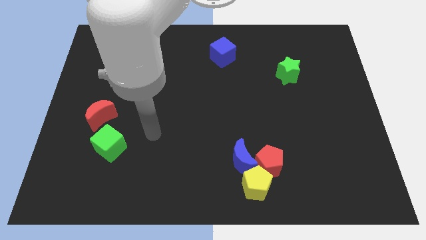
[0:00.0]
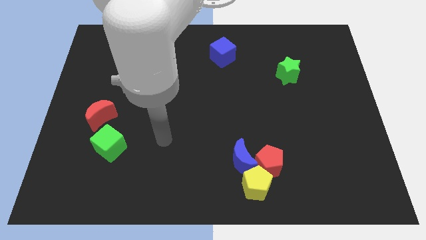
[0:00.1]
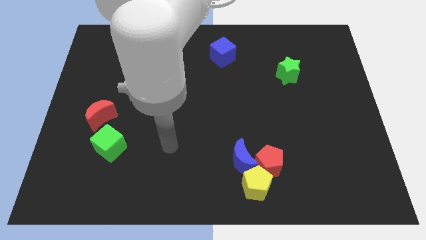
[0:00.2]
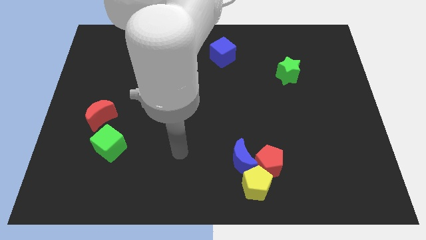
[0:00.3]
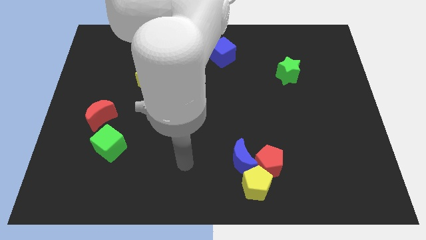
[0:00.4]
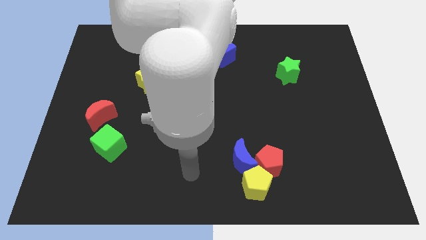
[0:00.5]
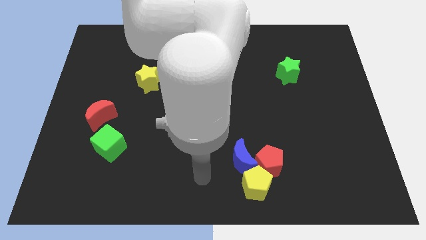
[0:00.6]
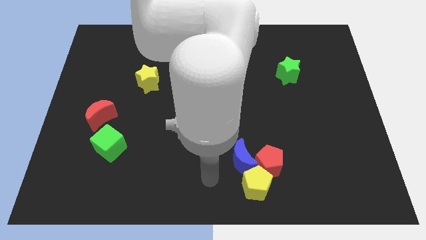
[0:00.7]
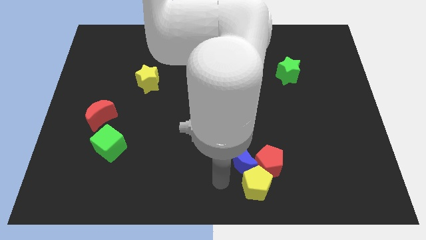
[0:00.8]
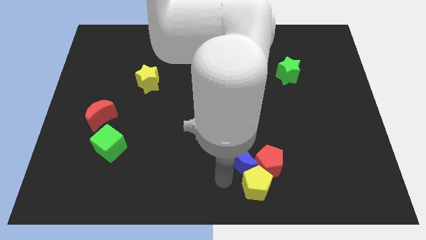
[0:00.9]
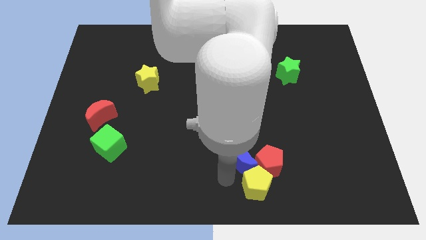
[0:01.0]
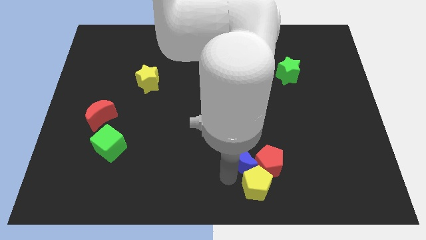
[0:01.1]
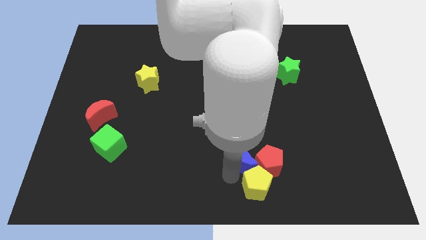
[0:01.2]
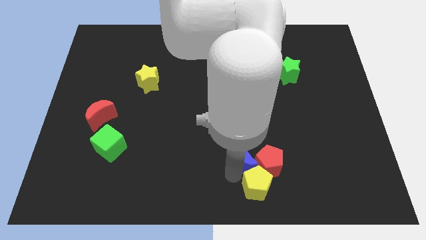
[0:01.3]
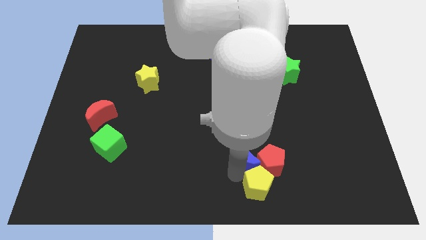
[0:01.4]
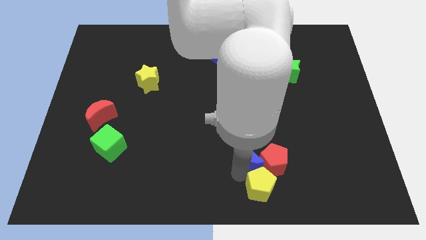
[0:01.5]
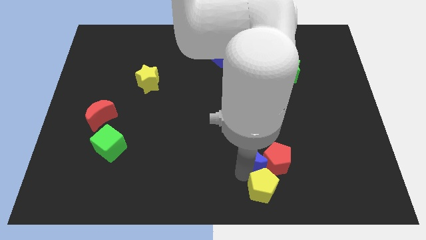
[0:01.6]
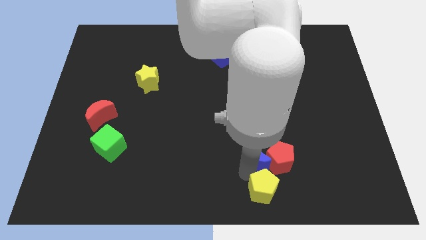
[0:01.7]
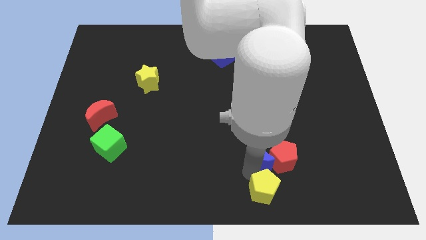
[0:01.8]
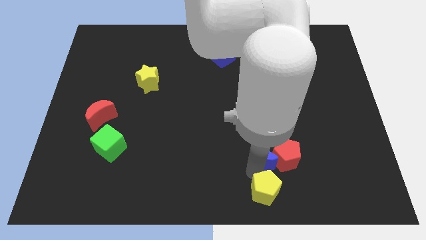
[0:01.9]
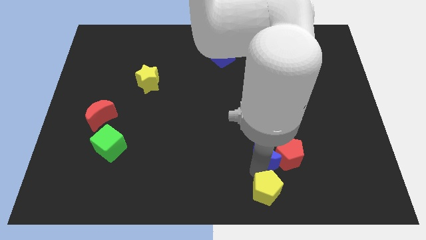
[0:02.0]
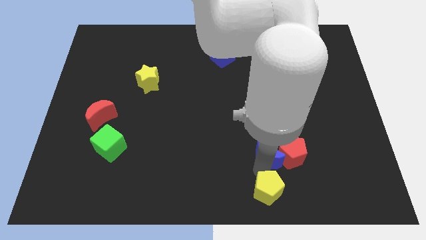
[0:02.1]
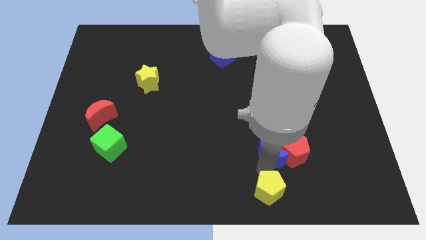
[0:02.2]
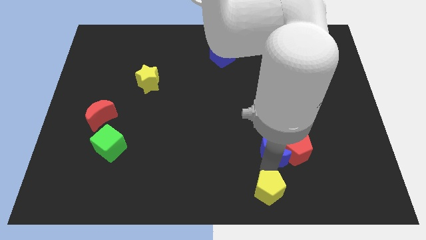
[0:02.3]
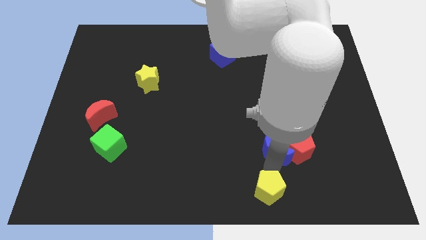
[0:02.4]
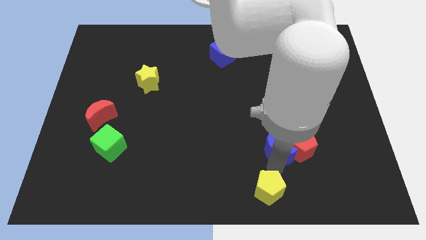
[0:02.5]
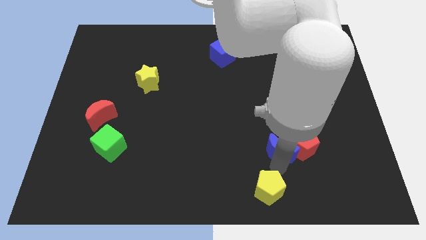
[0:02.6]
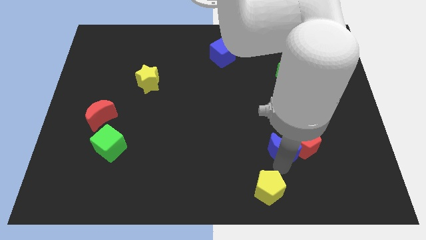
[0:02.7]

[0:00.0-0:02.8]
slightly move the blue moon upwards and right diagonally

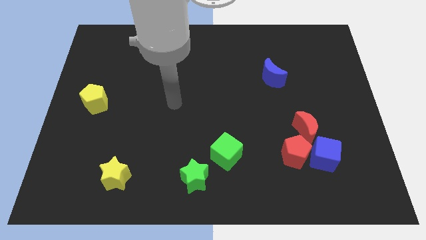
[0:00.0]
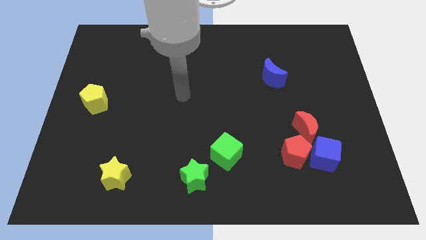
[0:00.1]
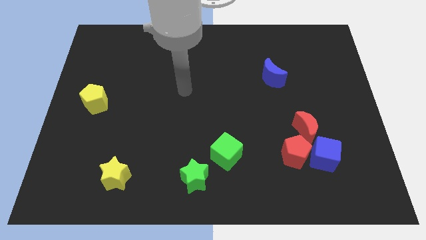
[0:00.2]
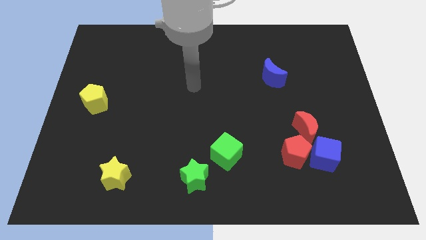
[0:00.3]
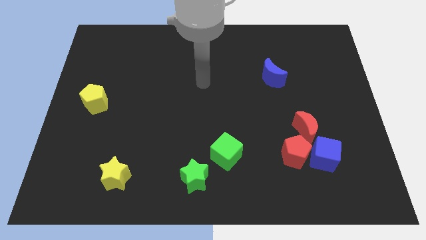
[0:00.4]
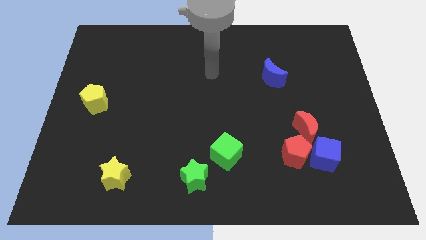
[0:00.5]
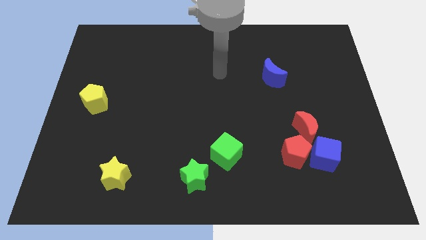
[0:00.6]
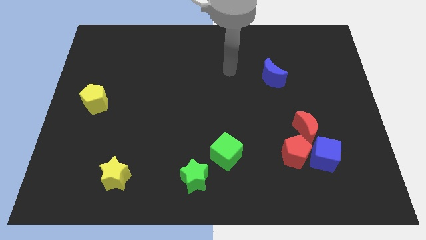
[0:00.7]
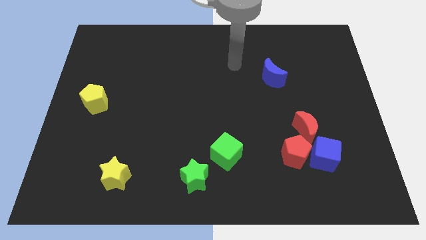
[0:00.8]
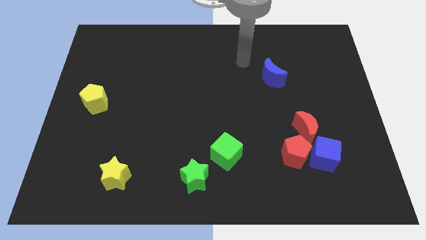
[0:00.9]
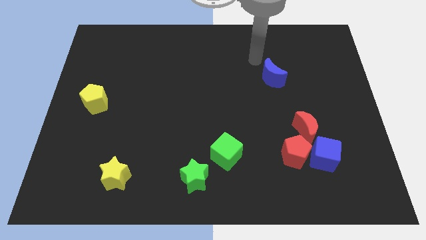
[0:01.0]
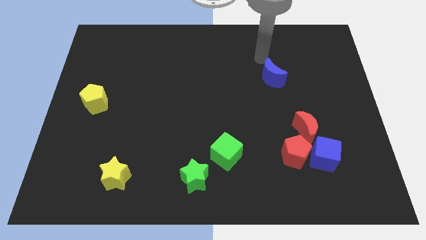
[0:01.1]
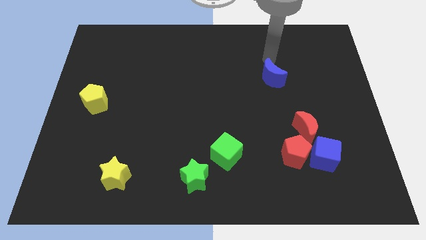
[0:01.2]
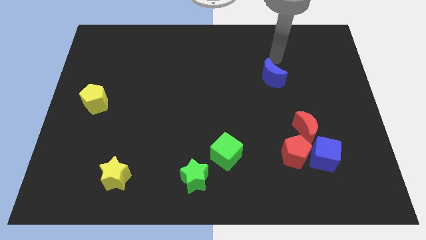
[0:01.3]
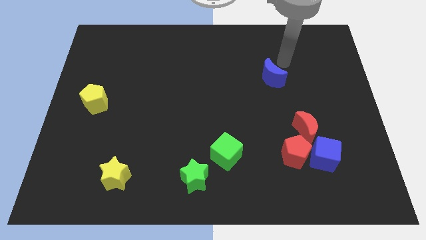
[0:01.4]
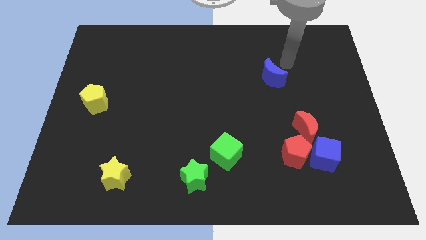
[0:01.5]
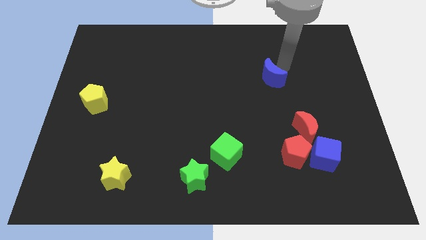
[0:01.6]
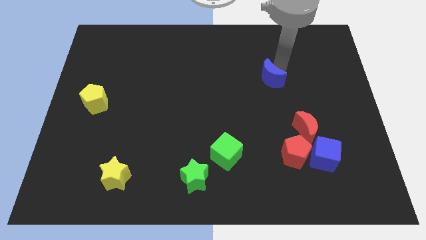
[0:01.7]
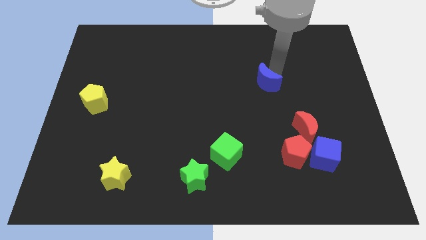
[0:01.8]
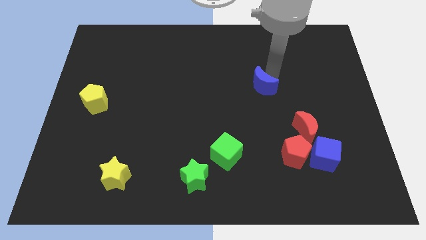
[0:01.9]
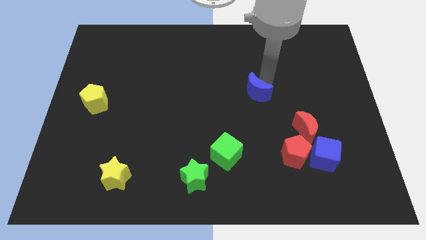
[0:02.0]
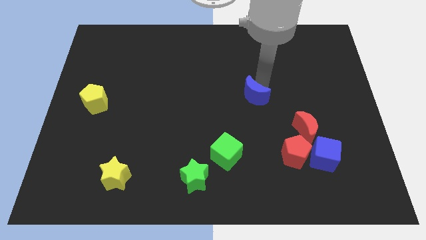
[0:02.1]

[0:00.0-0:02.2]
slide the blue moon a little diagonally downwards and to the left

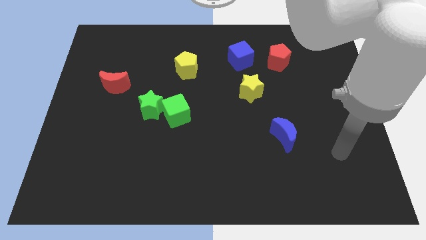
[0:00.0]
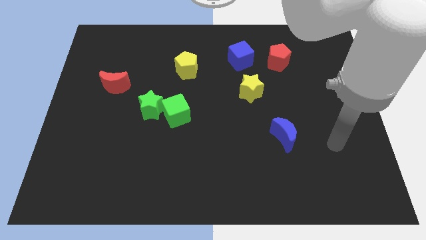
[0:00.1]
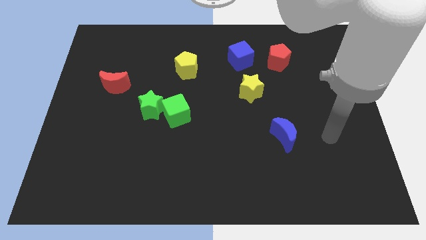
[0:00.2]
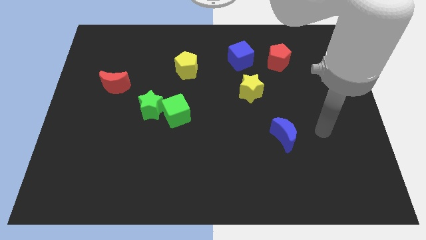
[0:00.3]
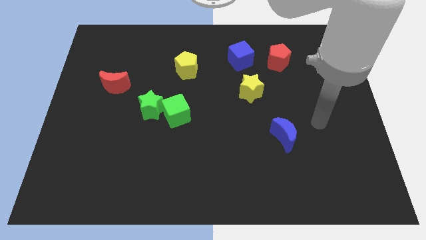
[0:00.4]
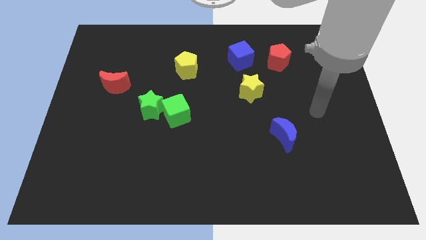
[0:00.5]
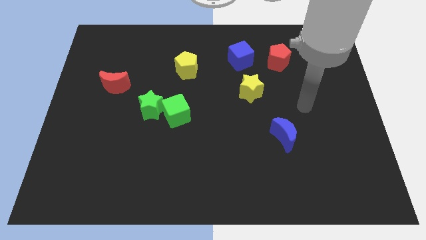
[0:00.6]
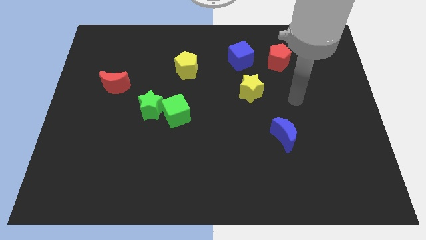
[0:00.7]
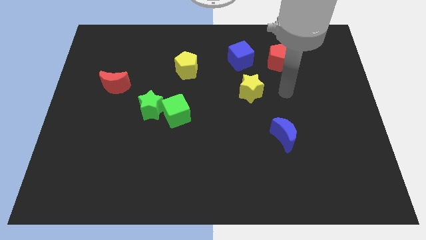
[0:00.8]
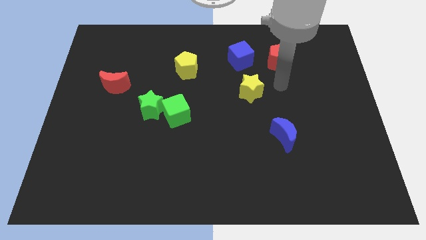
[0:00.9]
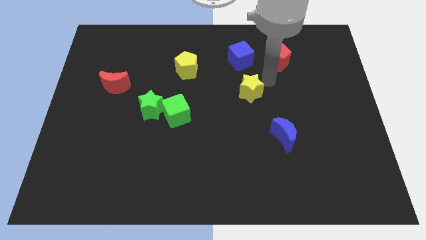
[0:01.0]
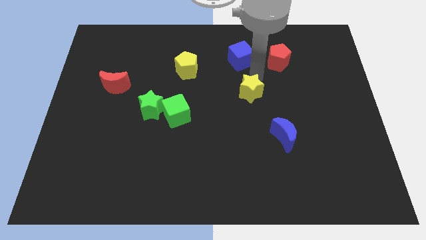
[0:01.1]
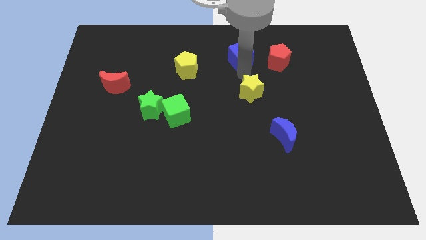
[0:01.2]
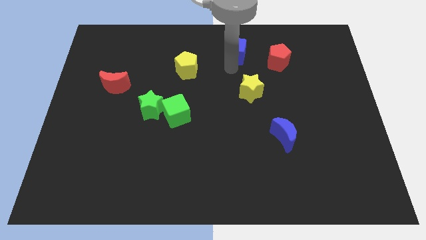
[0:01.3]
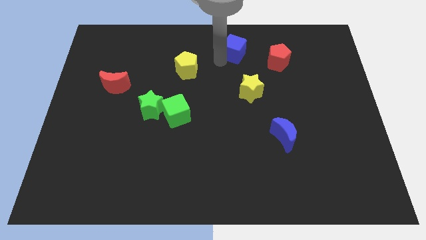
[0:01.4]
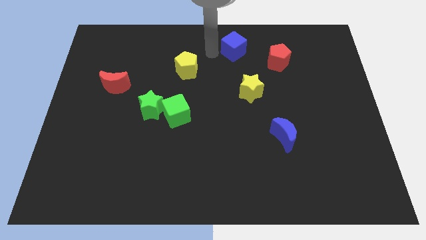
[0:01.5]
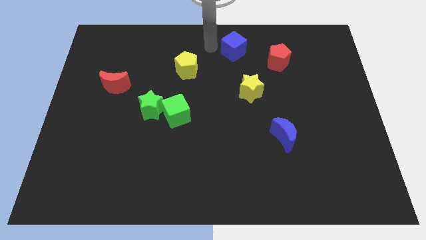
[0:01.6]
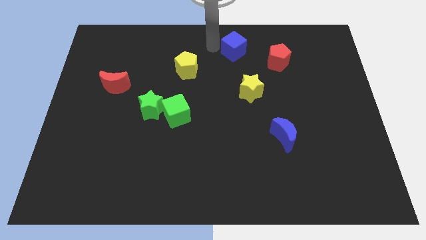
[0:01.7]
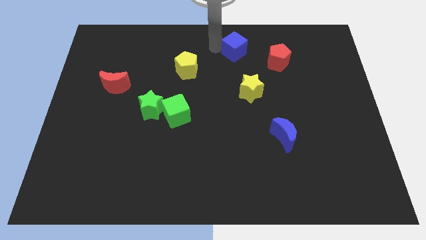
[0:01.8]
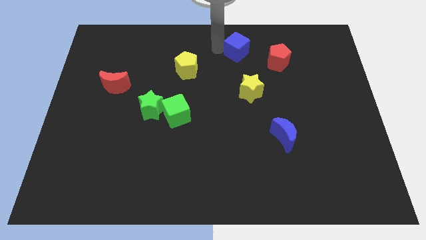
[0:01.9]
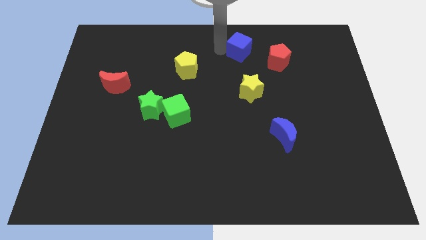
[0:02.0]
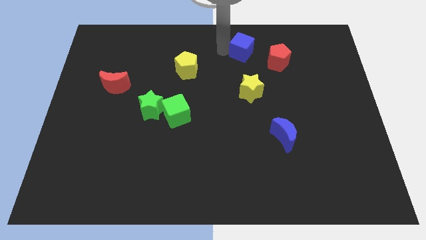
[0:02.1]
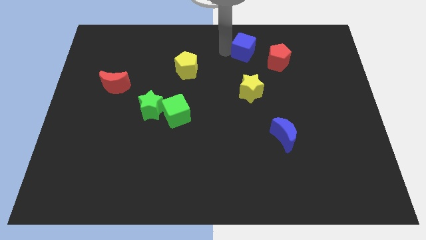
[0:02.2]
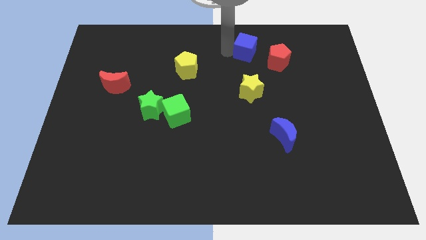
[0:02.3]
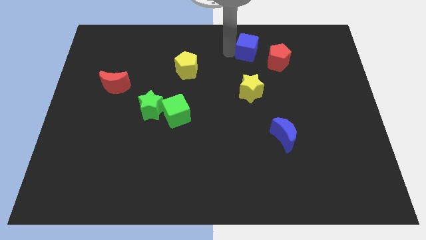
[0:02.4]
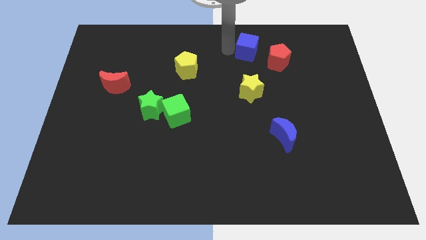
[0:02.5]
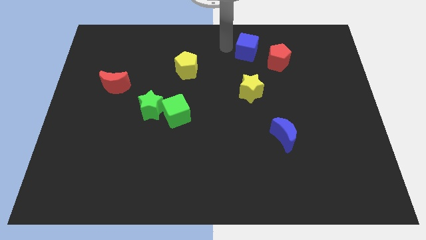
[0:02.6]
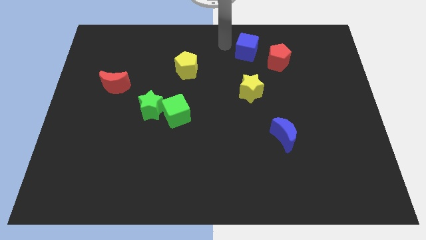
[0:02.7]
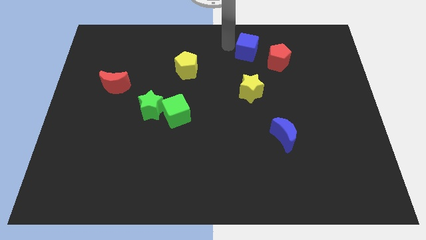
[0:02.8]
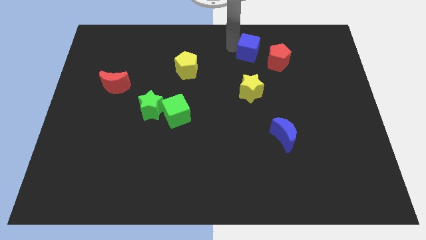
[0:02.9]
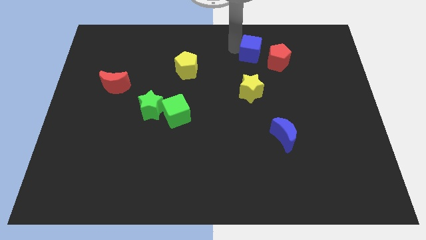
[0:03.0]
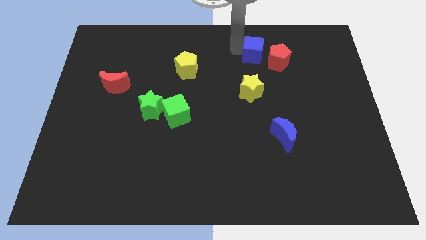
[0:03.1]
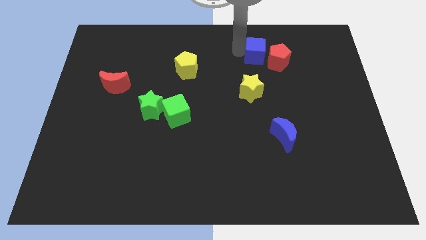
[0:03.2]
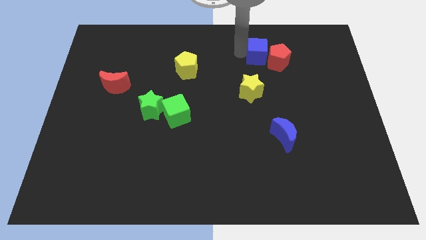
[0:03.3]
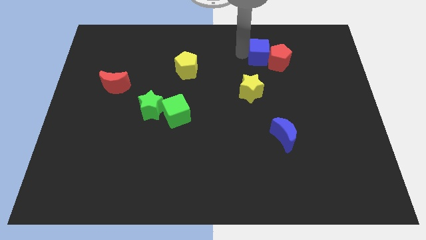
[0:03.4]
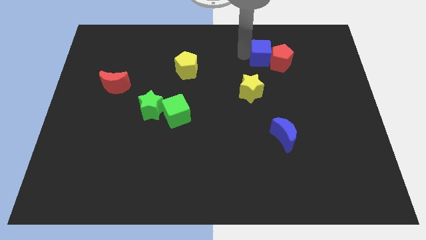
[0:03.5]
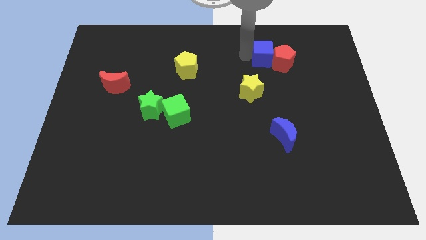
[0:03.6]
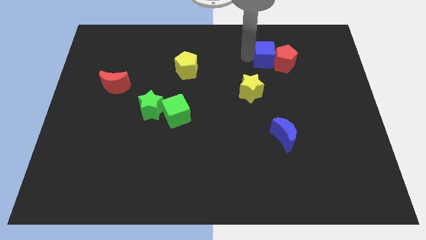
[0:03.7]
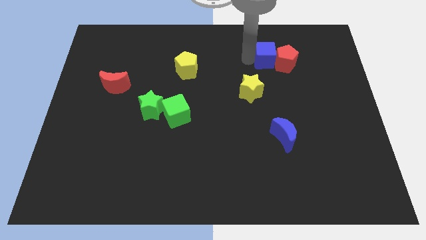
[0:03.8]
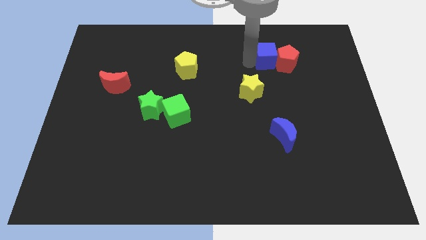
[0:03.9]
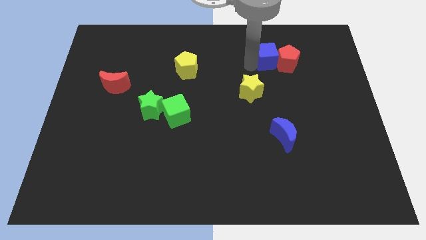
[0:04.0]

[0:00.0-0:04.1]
move the blue cube a bit to the right
